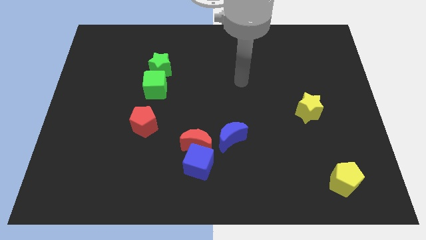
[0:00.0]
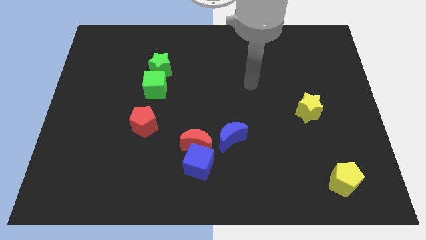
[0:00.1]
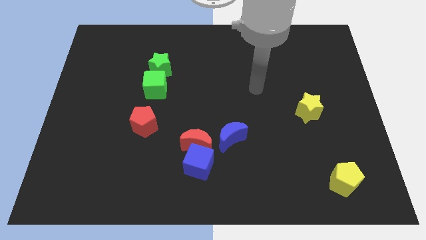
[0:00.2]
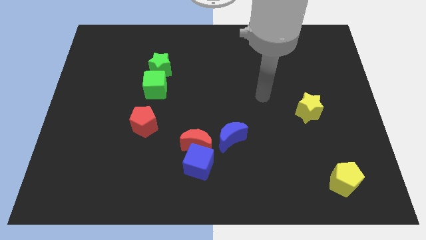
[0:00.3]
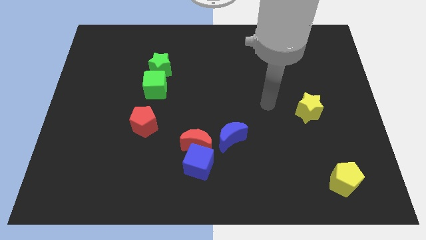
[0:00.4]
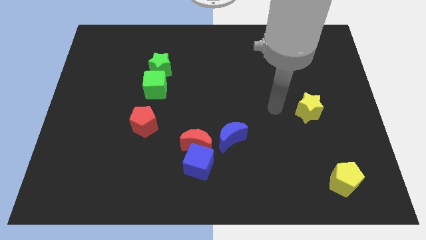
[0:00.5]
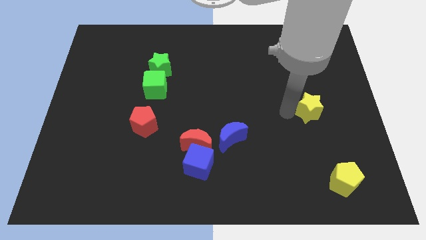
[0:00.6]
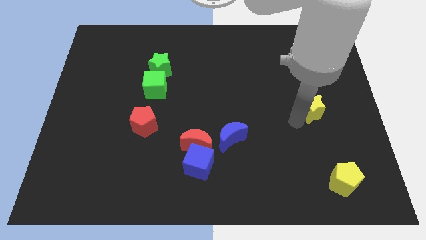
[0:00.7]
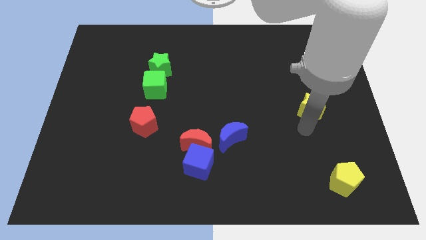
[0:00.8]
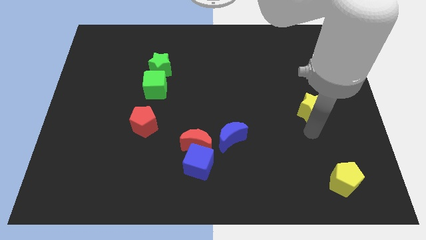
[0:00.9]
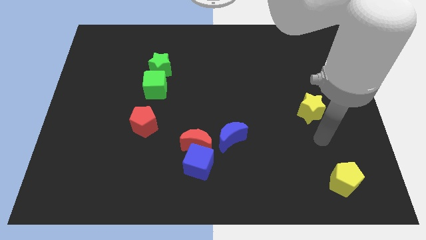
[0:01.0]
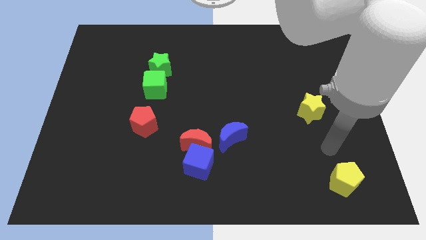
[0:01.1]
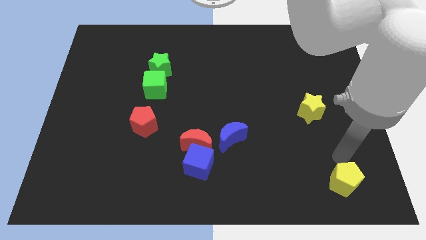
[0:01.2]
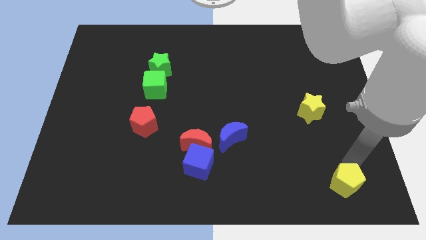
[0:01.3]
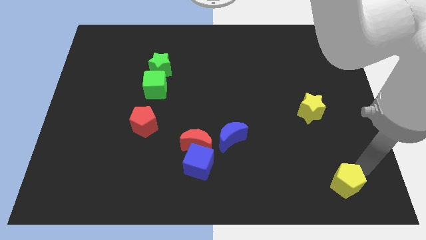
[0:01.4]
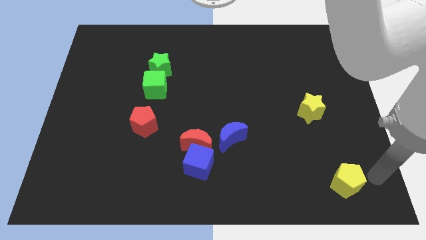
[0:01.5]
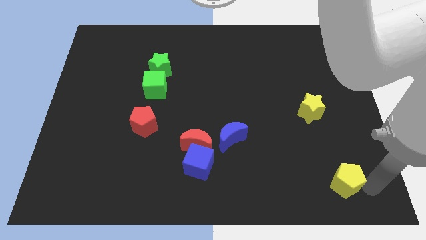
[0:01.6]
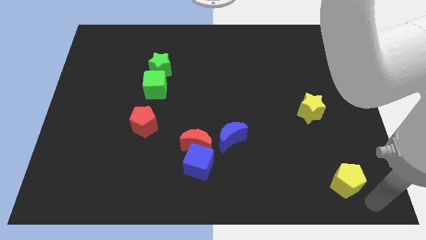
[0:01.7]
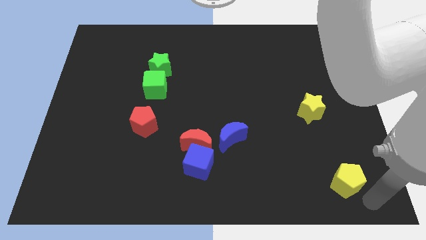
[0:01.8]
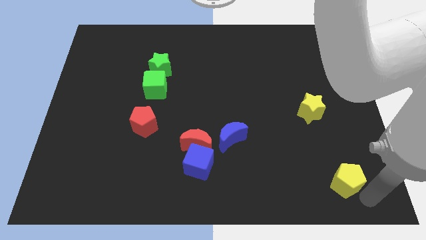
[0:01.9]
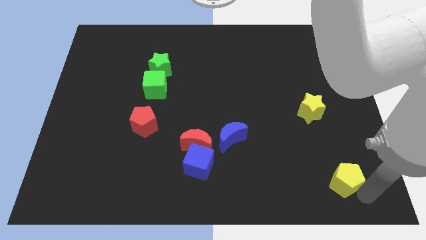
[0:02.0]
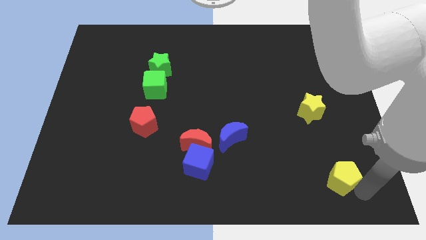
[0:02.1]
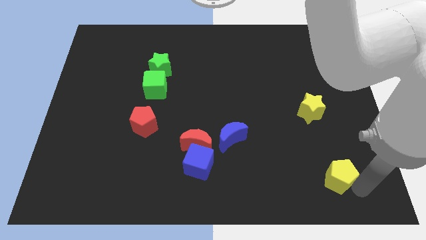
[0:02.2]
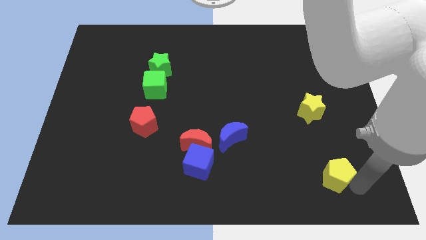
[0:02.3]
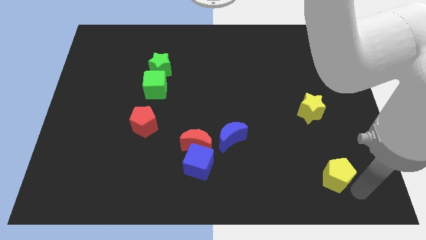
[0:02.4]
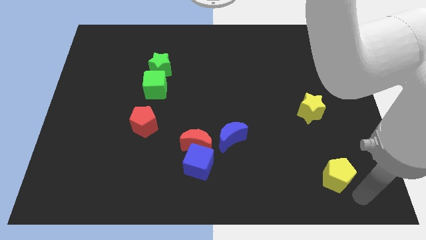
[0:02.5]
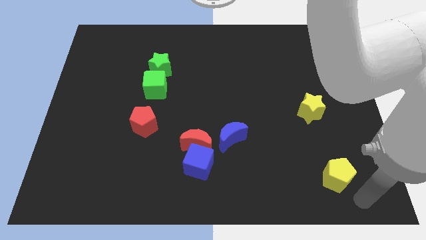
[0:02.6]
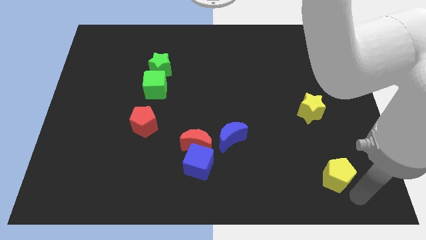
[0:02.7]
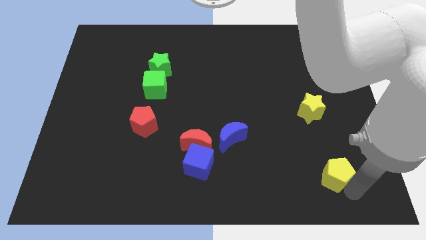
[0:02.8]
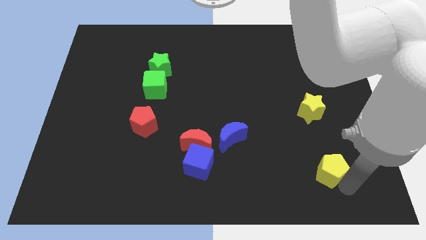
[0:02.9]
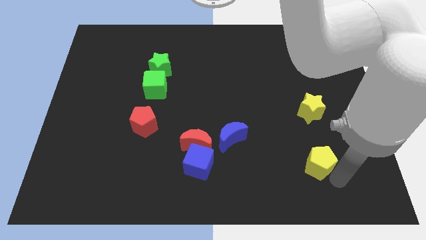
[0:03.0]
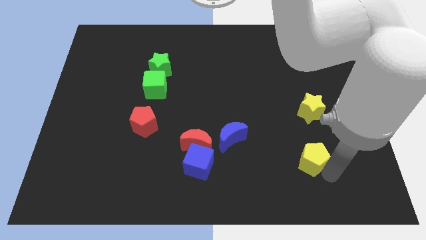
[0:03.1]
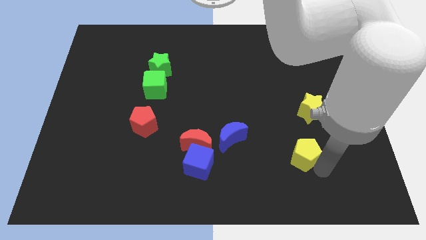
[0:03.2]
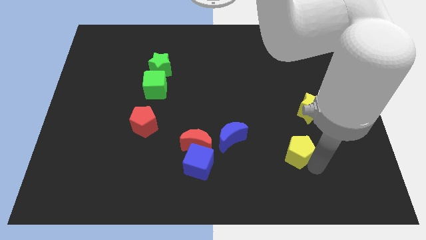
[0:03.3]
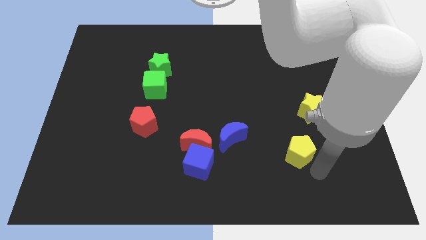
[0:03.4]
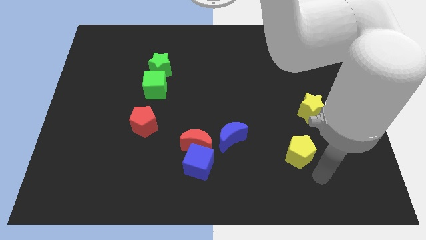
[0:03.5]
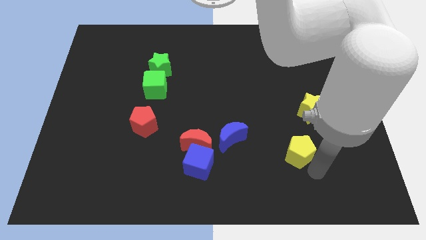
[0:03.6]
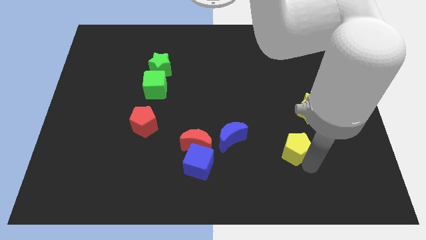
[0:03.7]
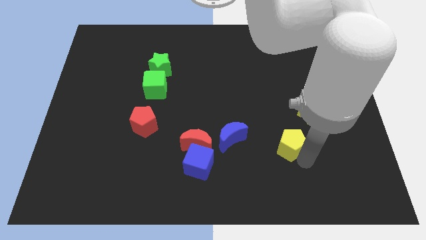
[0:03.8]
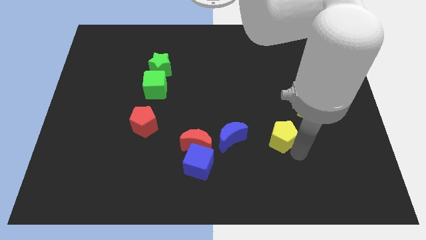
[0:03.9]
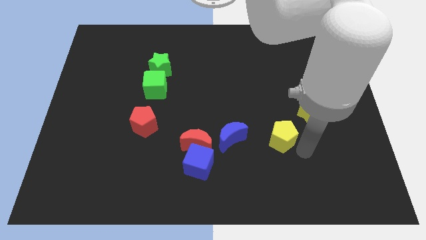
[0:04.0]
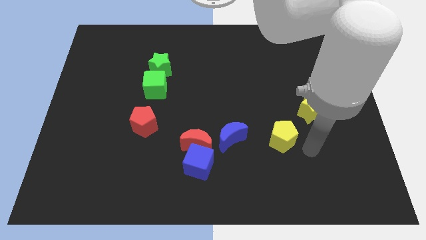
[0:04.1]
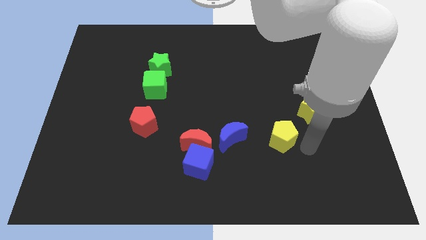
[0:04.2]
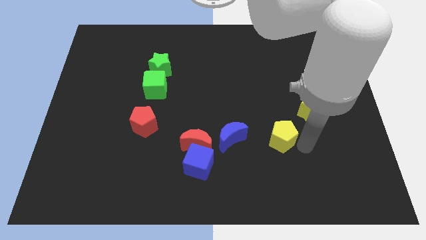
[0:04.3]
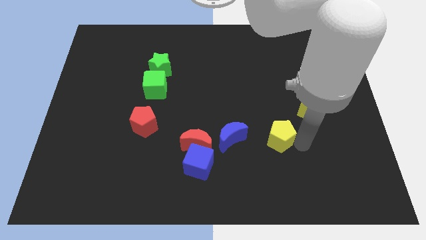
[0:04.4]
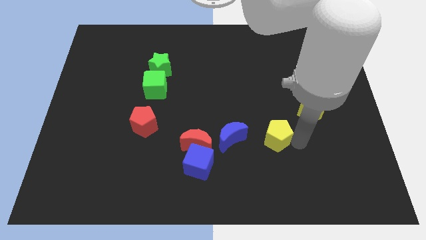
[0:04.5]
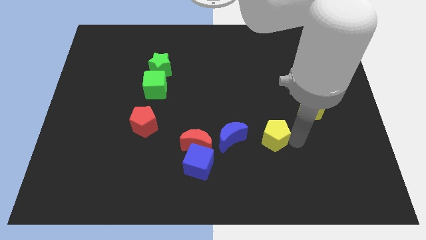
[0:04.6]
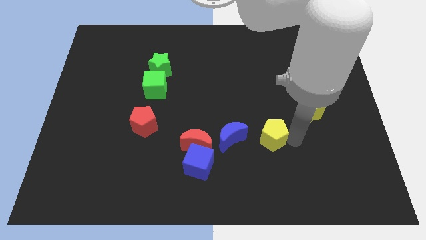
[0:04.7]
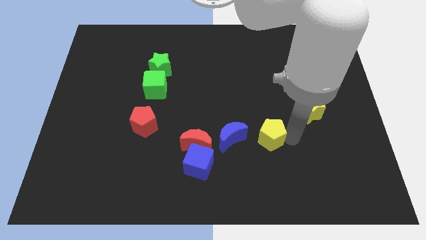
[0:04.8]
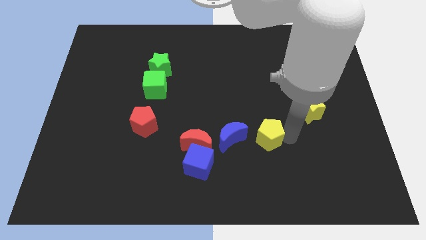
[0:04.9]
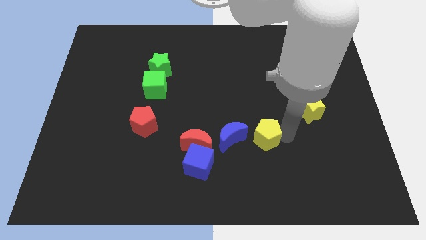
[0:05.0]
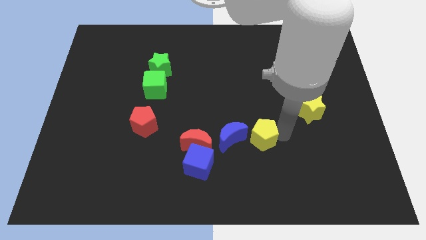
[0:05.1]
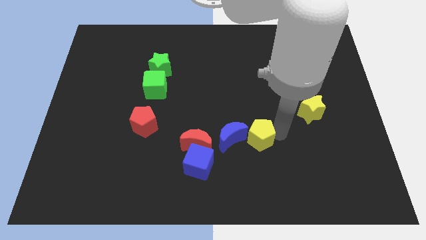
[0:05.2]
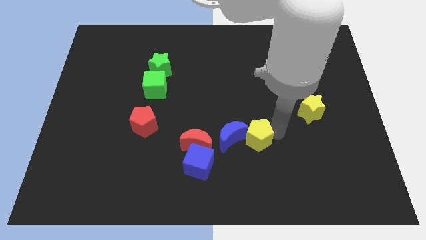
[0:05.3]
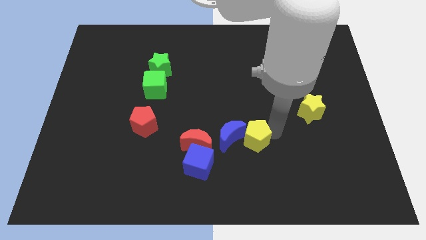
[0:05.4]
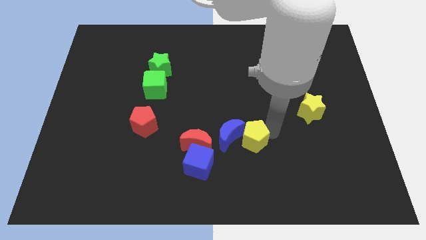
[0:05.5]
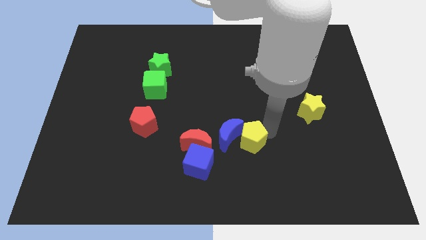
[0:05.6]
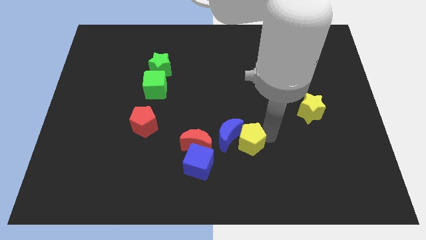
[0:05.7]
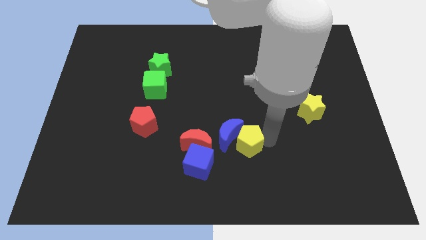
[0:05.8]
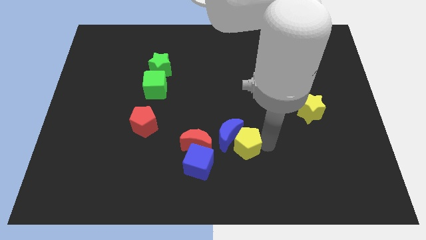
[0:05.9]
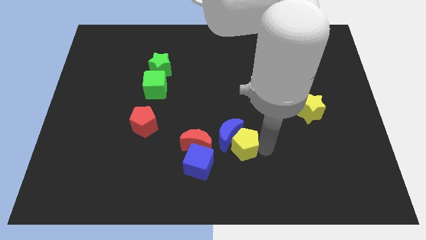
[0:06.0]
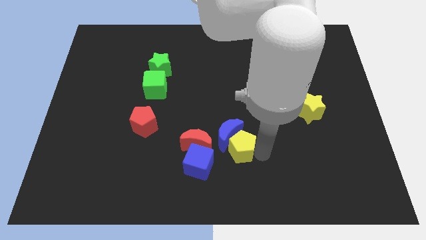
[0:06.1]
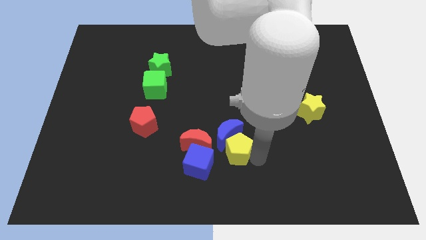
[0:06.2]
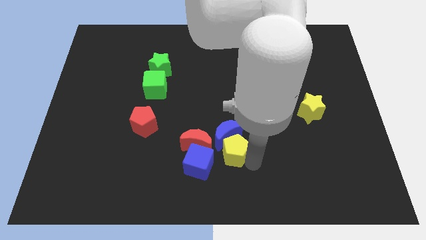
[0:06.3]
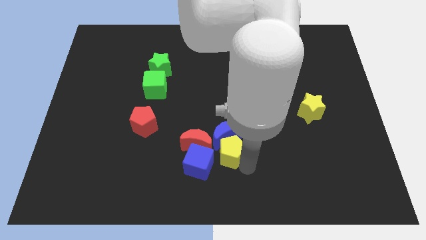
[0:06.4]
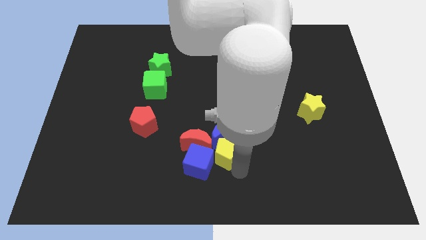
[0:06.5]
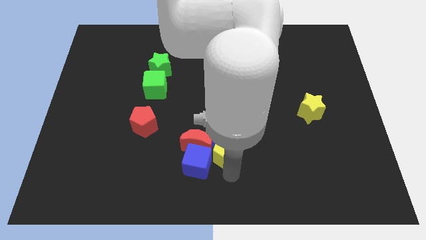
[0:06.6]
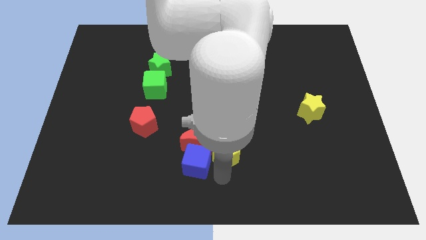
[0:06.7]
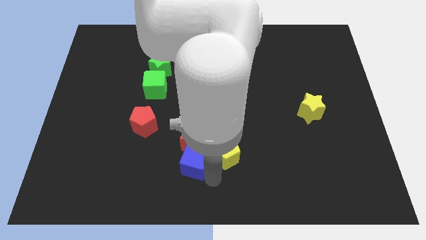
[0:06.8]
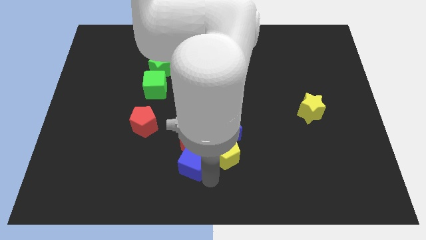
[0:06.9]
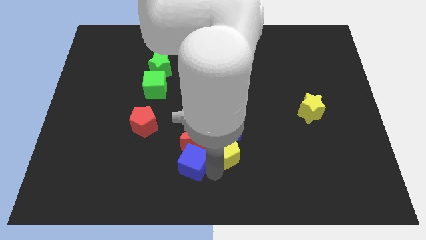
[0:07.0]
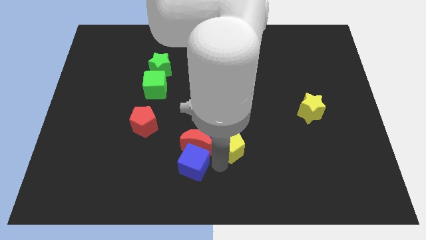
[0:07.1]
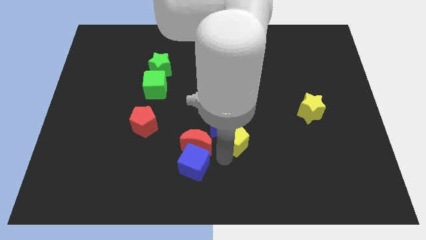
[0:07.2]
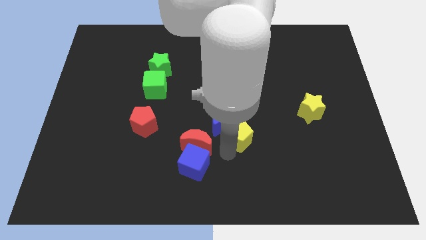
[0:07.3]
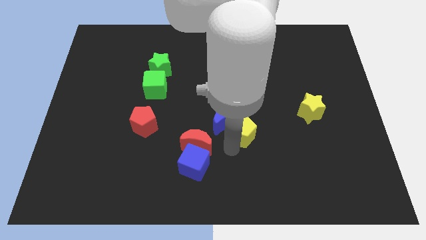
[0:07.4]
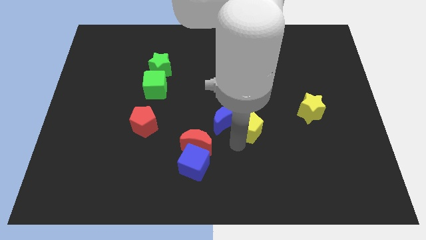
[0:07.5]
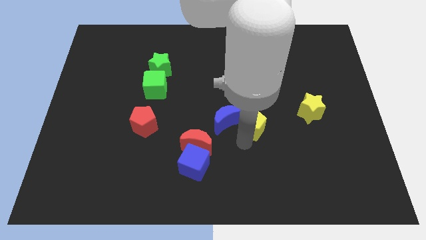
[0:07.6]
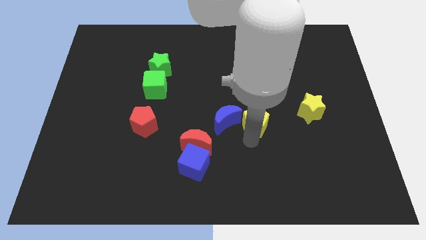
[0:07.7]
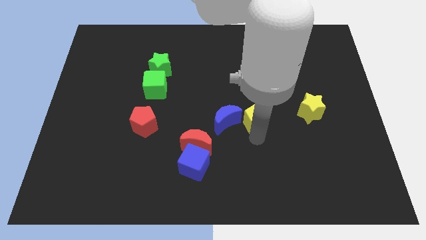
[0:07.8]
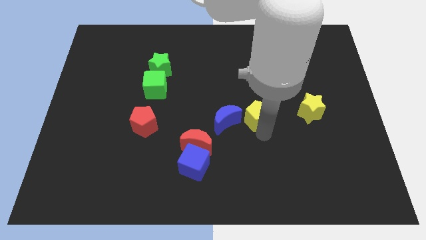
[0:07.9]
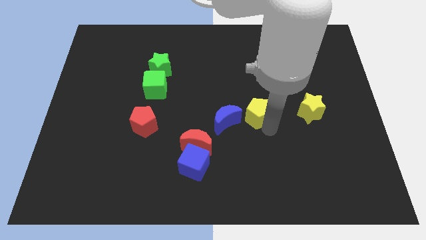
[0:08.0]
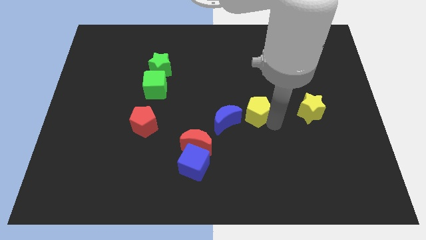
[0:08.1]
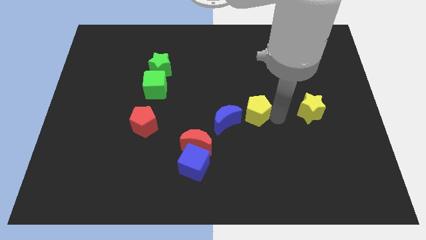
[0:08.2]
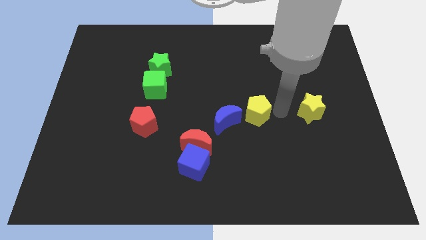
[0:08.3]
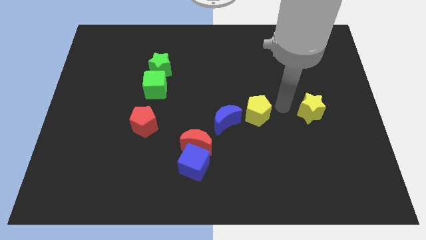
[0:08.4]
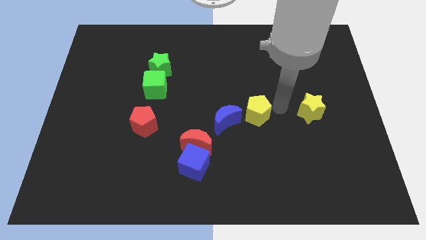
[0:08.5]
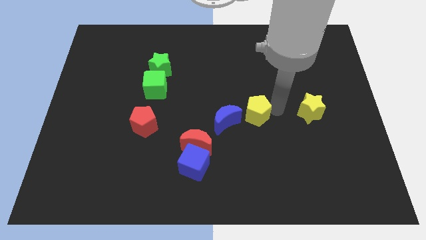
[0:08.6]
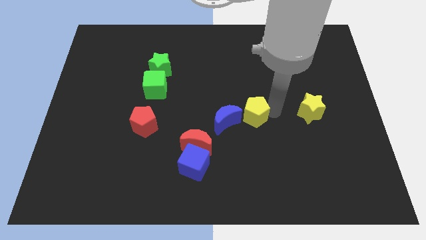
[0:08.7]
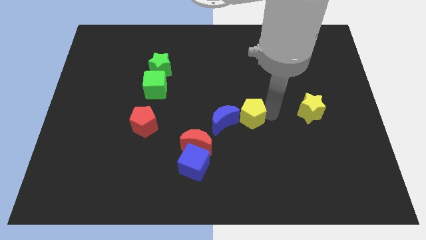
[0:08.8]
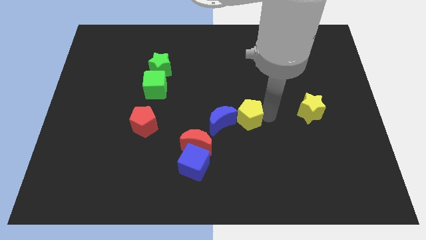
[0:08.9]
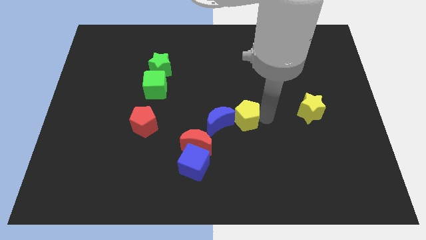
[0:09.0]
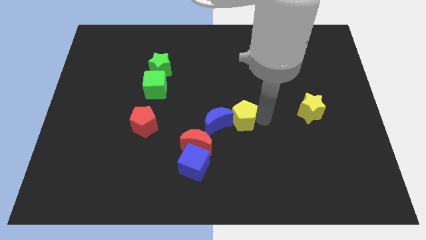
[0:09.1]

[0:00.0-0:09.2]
slide the yellow pentagon to the top right side of the red moon
